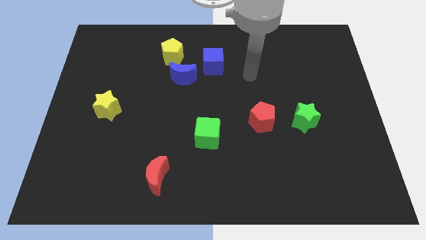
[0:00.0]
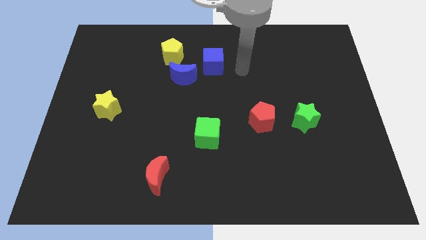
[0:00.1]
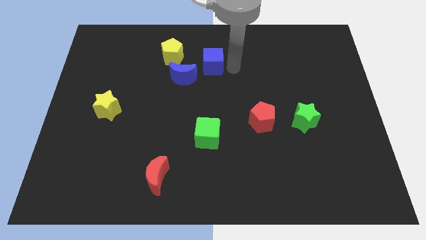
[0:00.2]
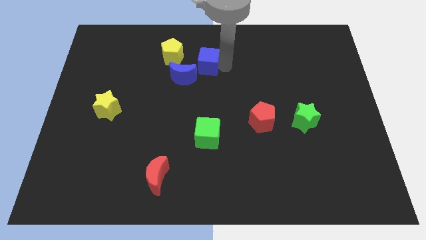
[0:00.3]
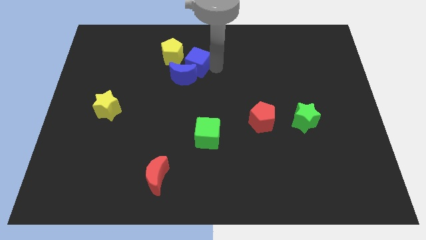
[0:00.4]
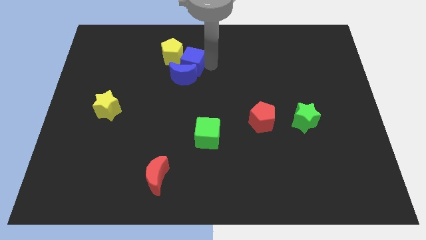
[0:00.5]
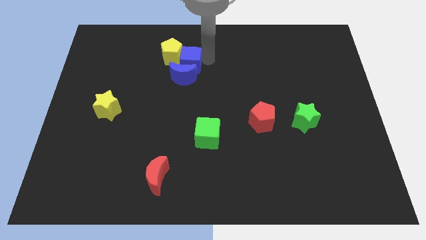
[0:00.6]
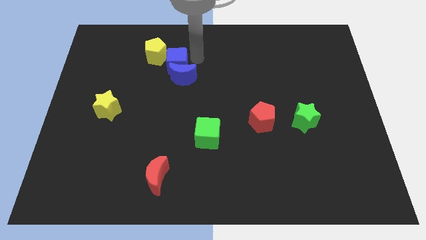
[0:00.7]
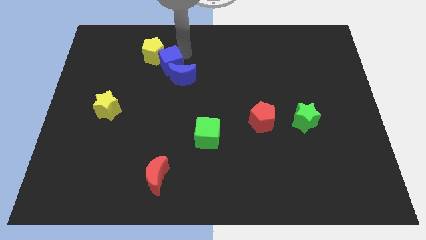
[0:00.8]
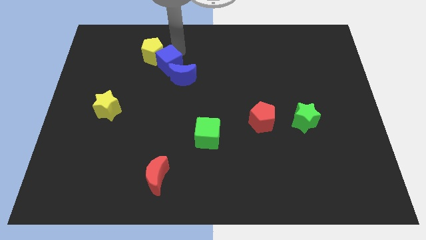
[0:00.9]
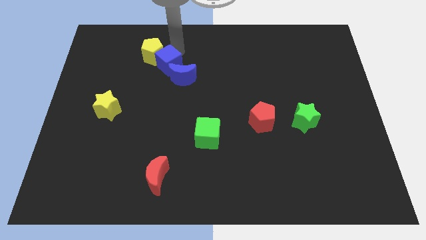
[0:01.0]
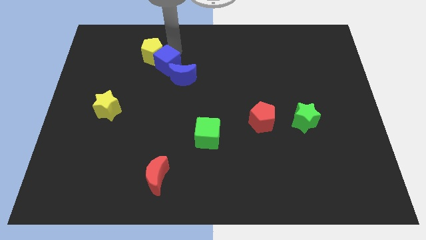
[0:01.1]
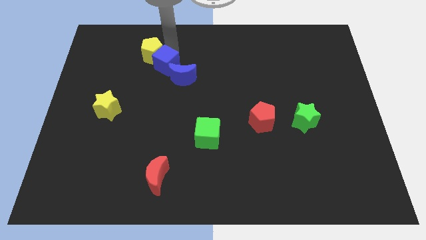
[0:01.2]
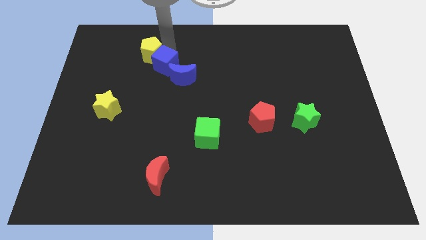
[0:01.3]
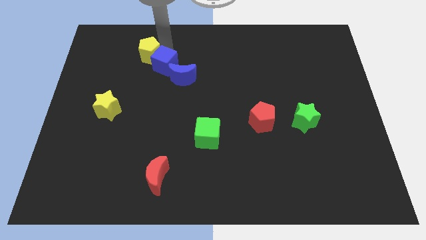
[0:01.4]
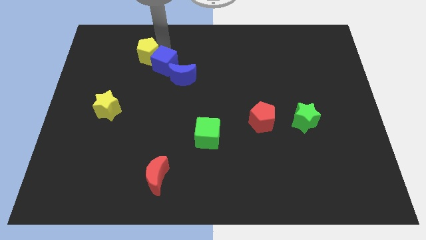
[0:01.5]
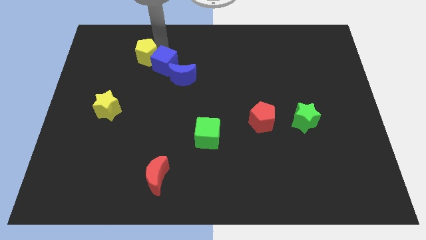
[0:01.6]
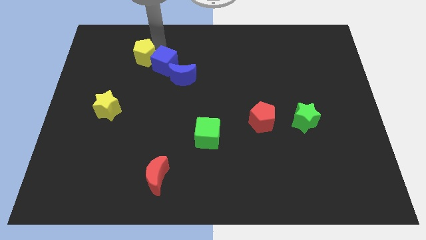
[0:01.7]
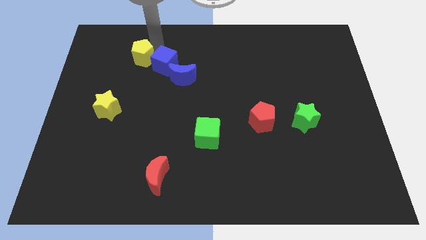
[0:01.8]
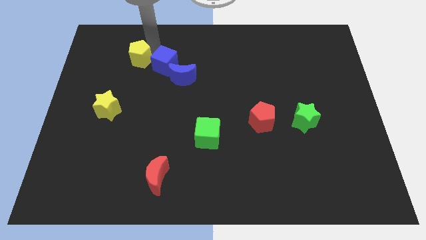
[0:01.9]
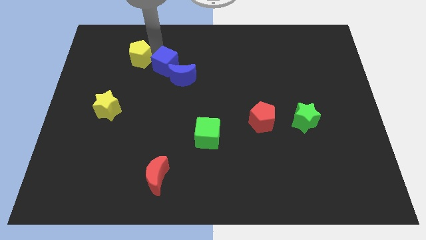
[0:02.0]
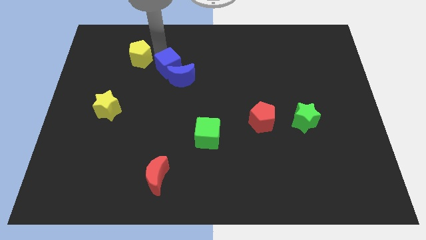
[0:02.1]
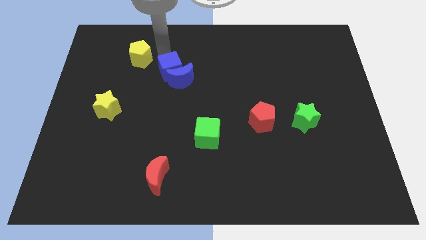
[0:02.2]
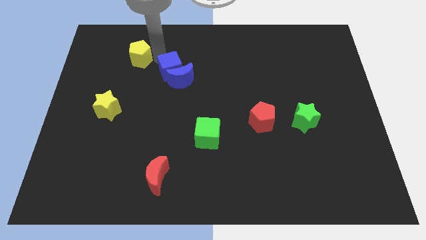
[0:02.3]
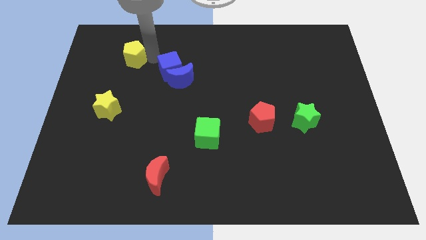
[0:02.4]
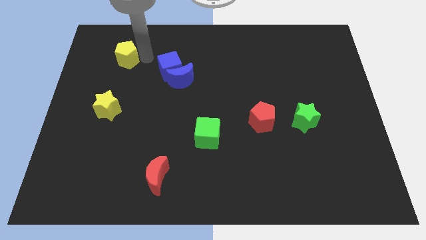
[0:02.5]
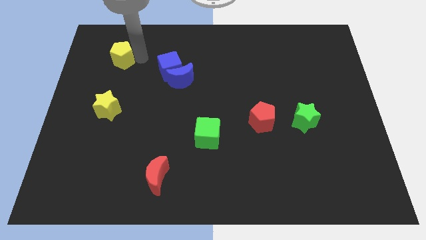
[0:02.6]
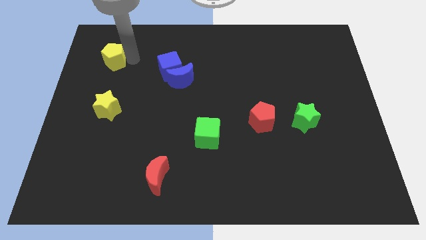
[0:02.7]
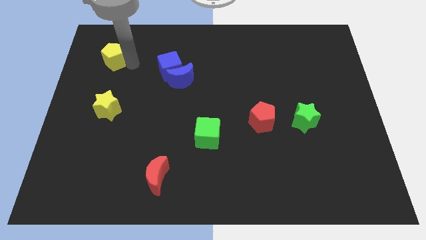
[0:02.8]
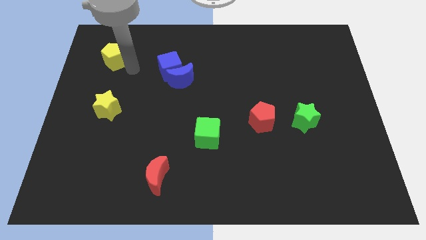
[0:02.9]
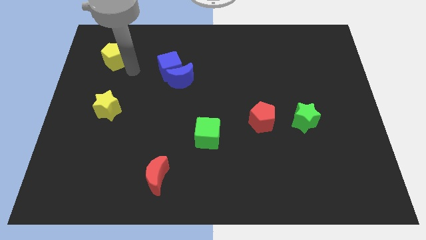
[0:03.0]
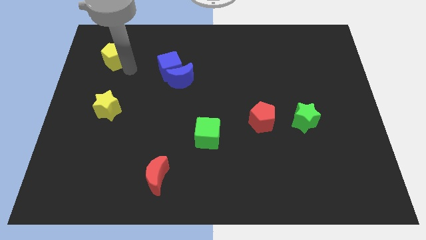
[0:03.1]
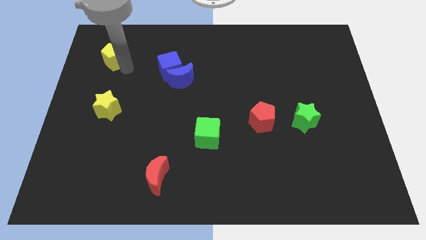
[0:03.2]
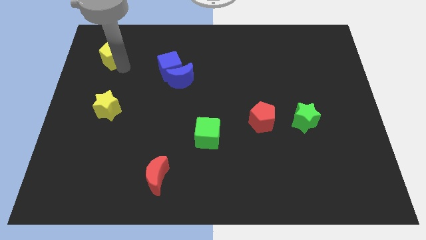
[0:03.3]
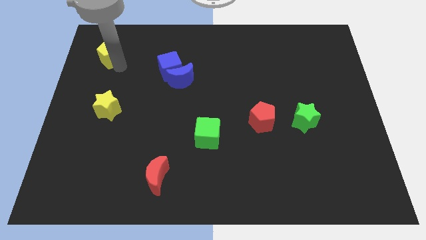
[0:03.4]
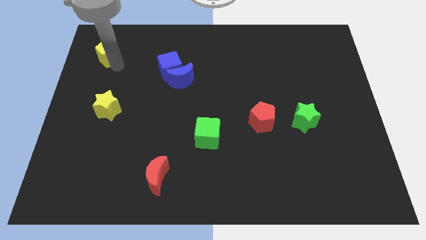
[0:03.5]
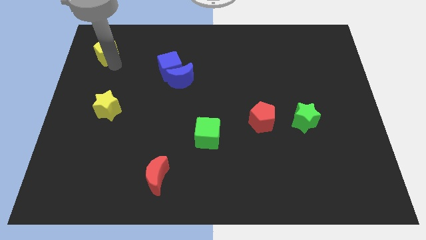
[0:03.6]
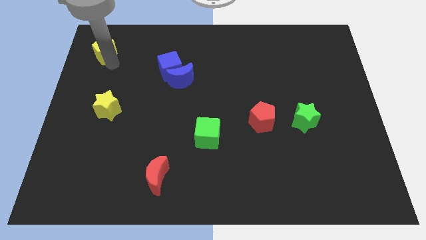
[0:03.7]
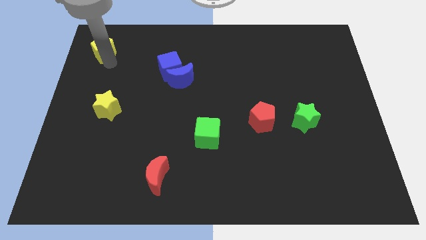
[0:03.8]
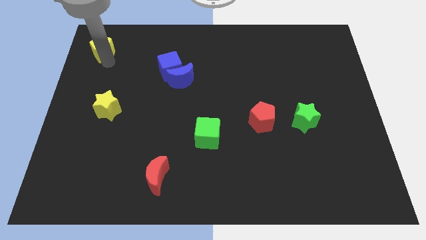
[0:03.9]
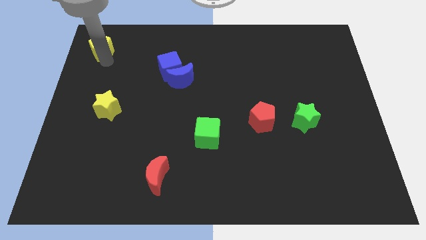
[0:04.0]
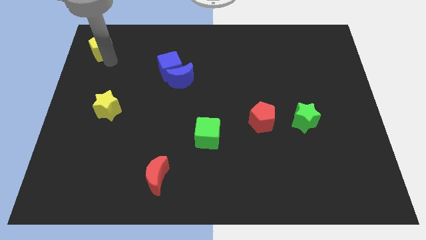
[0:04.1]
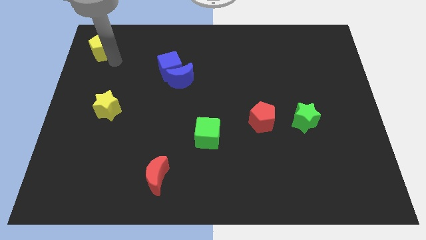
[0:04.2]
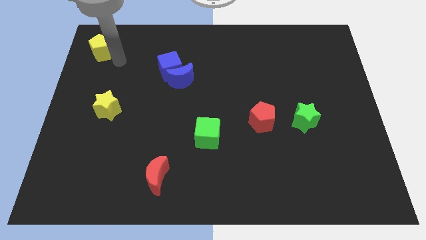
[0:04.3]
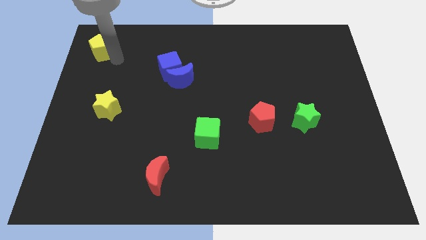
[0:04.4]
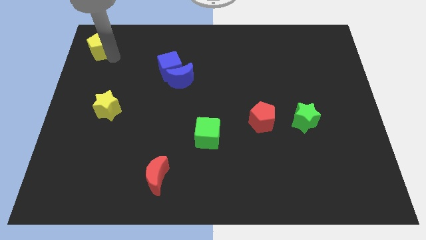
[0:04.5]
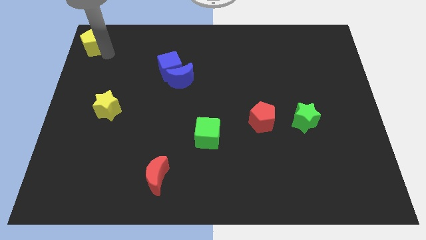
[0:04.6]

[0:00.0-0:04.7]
put the yellow pentagon to the top left of the board

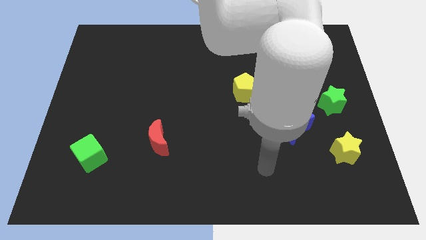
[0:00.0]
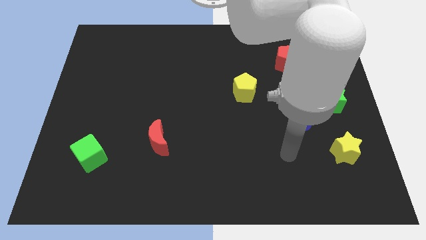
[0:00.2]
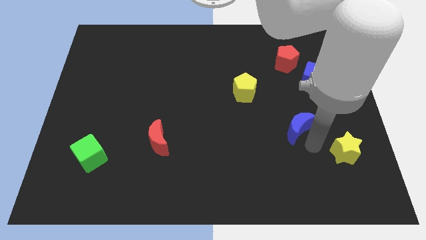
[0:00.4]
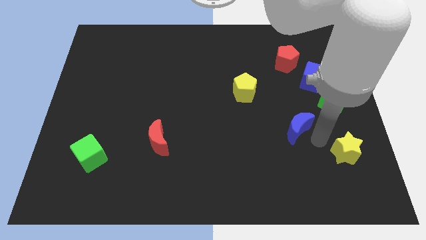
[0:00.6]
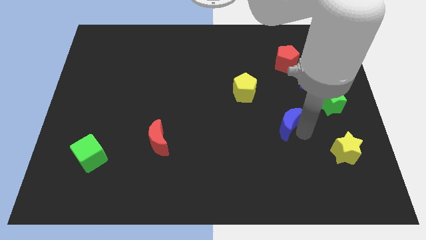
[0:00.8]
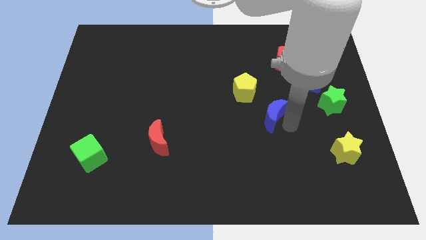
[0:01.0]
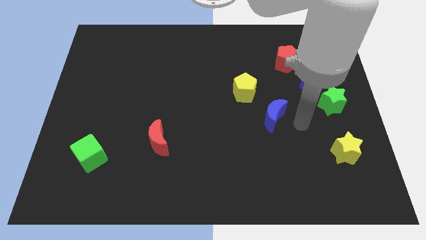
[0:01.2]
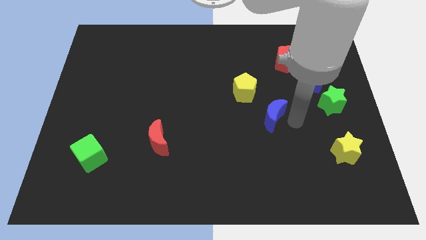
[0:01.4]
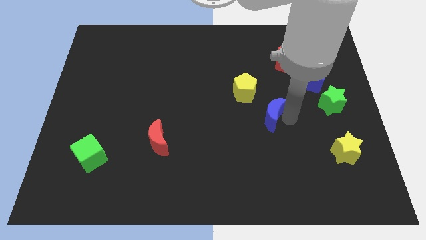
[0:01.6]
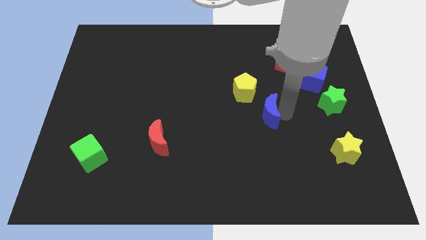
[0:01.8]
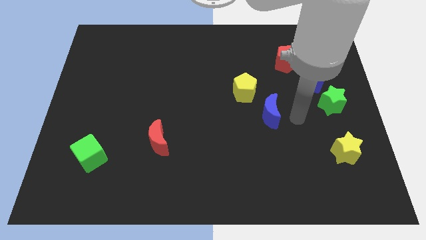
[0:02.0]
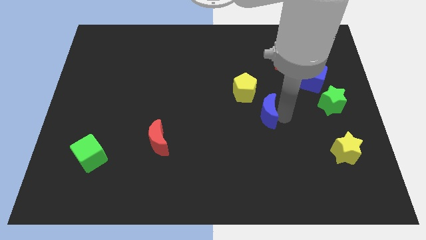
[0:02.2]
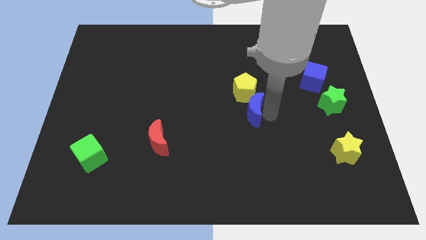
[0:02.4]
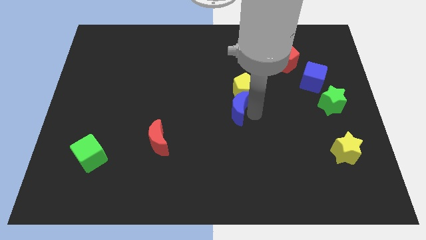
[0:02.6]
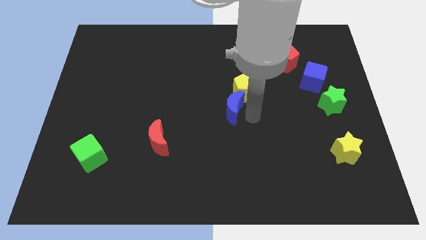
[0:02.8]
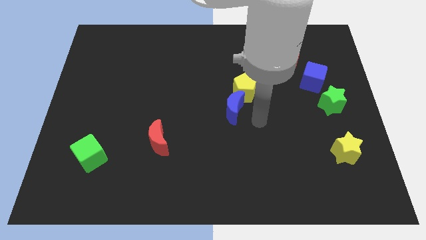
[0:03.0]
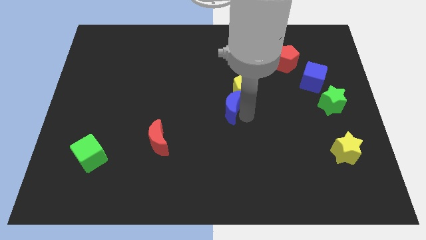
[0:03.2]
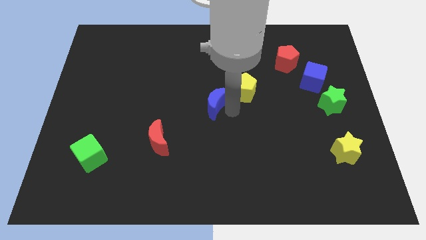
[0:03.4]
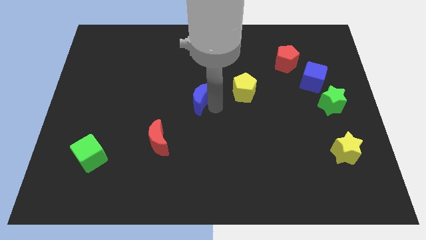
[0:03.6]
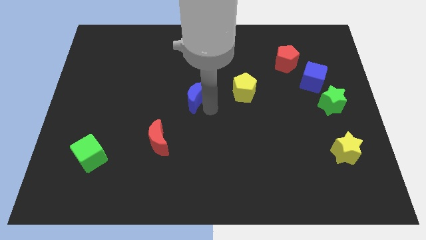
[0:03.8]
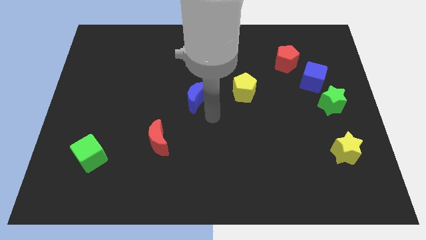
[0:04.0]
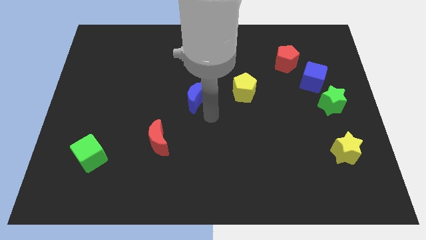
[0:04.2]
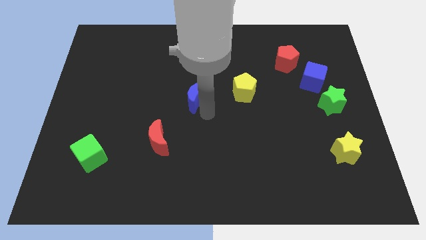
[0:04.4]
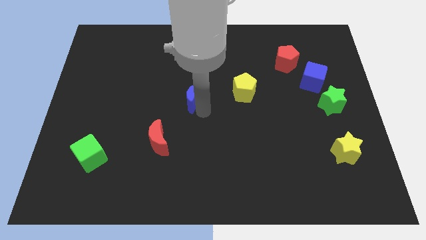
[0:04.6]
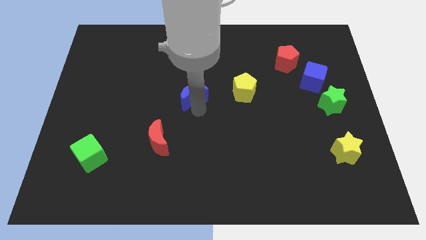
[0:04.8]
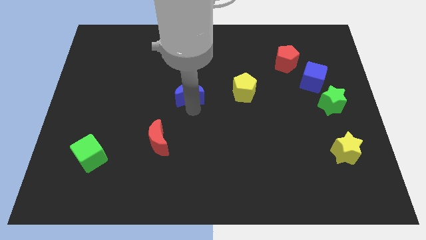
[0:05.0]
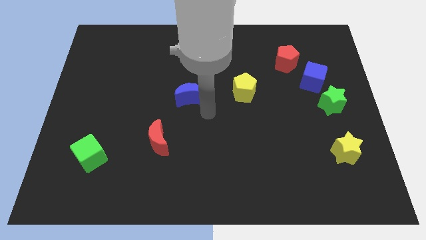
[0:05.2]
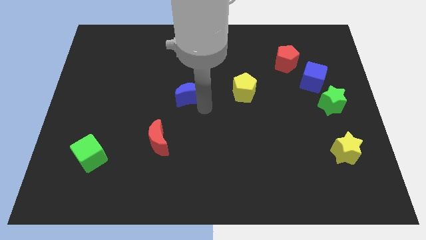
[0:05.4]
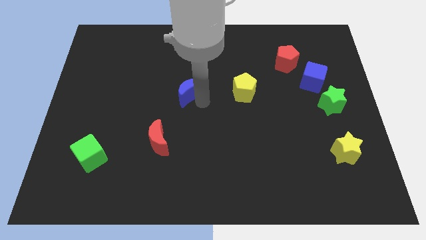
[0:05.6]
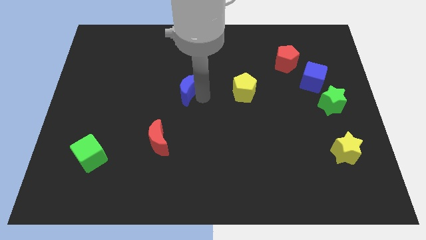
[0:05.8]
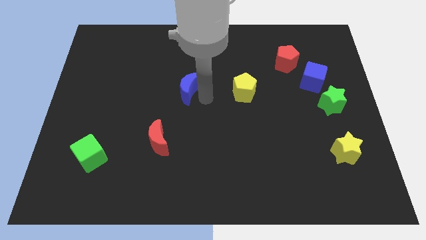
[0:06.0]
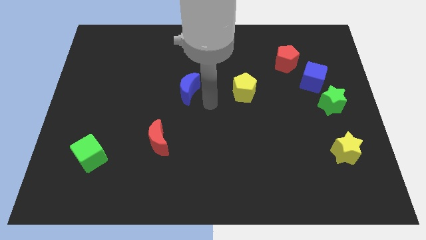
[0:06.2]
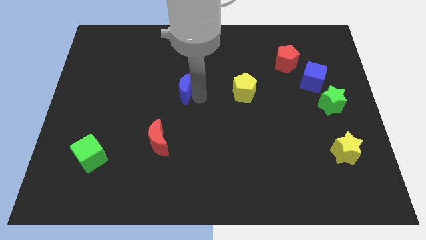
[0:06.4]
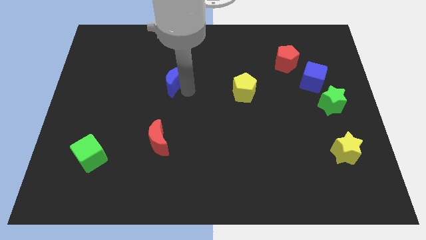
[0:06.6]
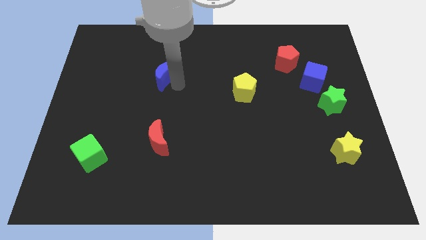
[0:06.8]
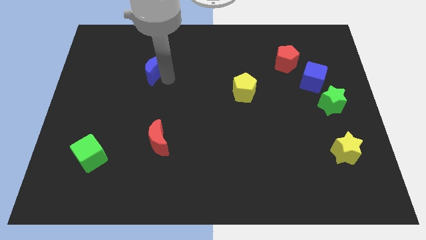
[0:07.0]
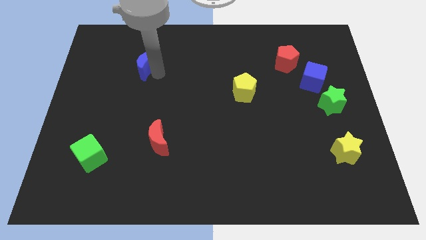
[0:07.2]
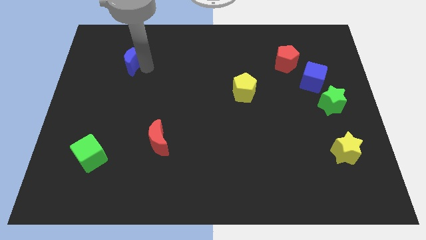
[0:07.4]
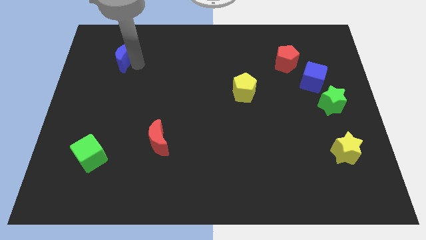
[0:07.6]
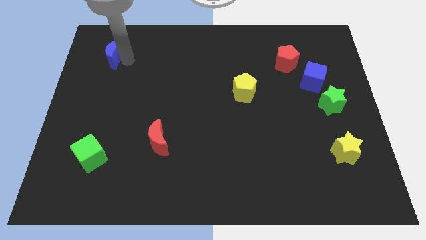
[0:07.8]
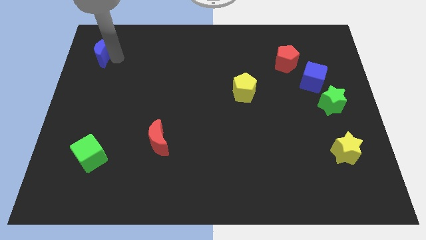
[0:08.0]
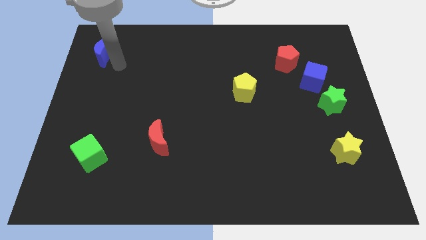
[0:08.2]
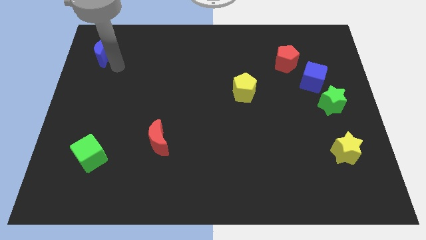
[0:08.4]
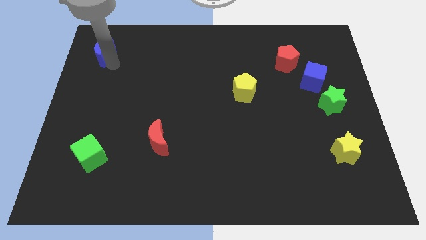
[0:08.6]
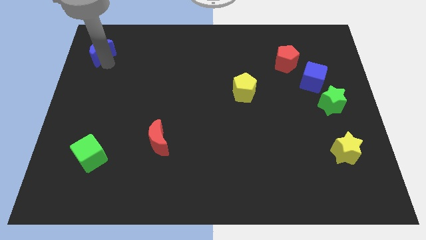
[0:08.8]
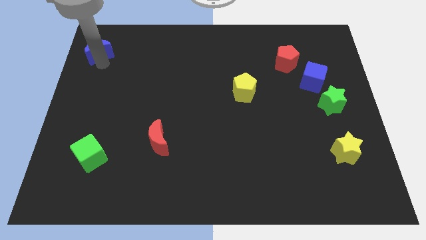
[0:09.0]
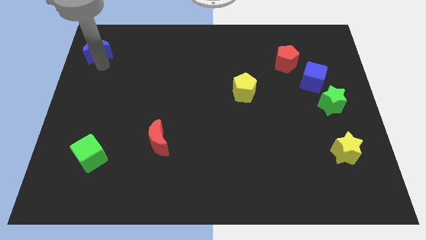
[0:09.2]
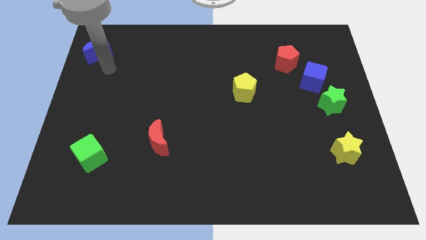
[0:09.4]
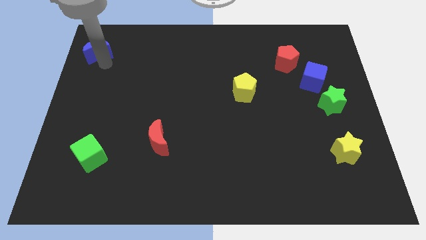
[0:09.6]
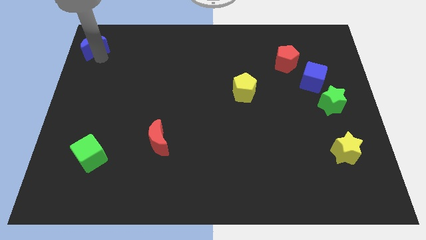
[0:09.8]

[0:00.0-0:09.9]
move the blue moon to the upper left corner
